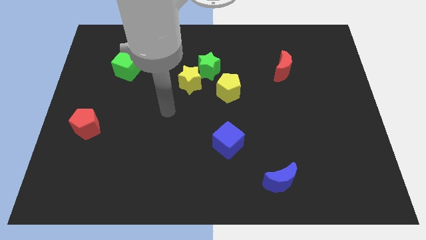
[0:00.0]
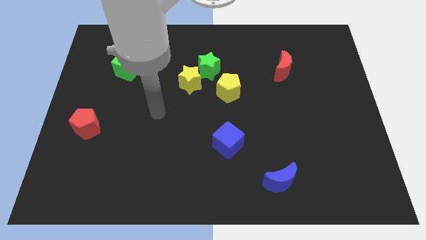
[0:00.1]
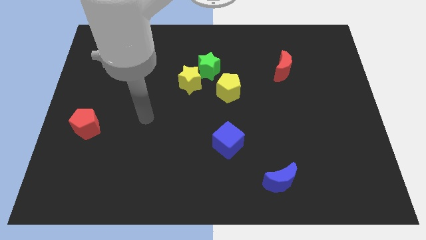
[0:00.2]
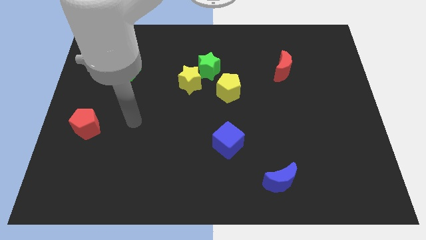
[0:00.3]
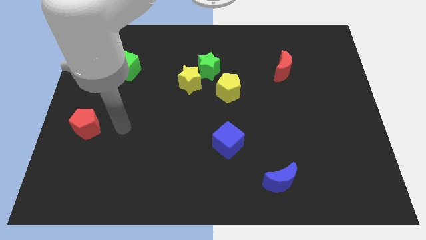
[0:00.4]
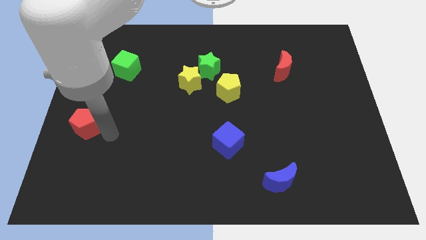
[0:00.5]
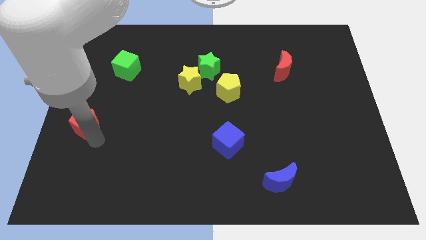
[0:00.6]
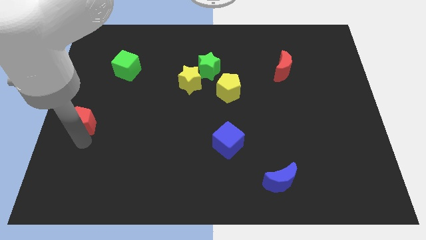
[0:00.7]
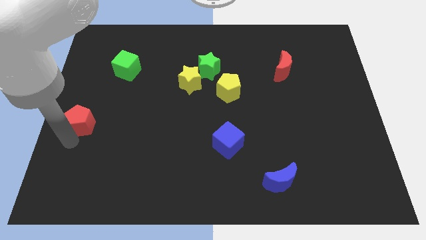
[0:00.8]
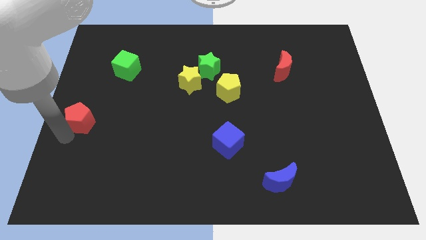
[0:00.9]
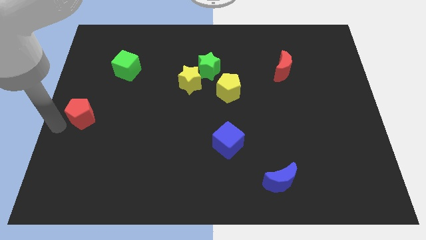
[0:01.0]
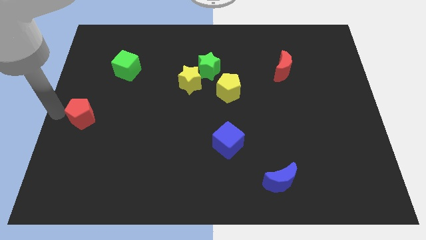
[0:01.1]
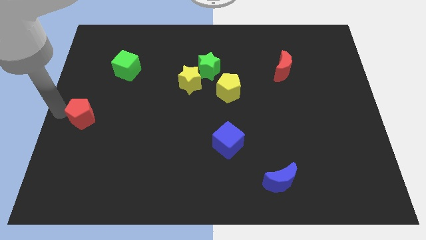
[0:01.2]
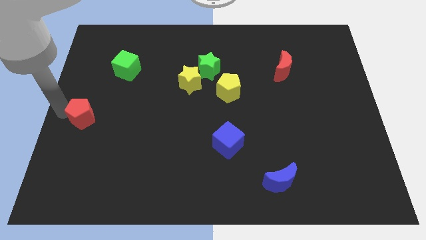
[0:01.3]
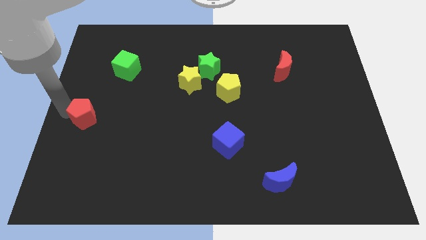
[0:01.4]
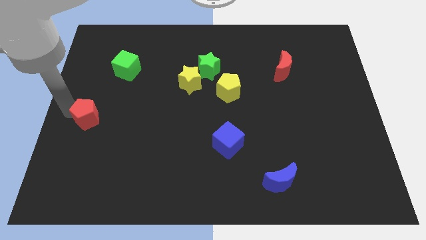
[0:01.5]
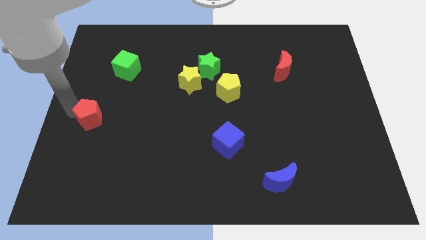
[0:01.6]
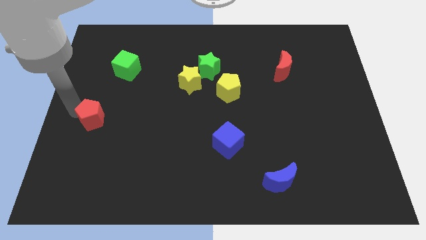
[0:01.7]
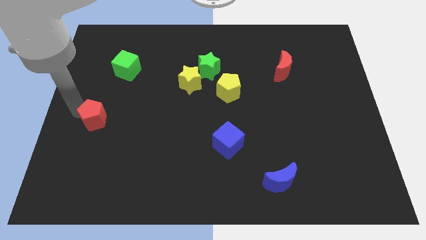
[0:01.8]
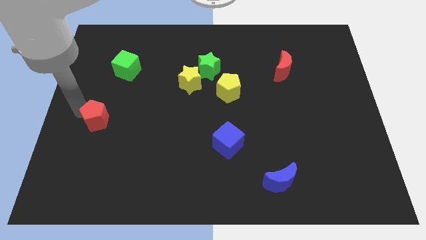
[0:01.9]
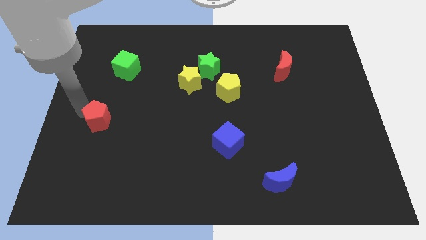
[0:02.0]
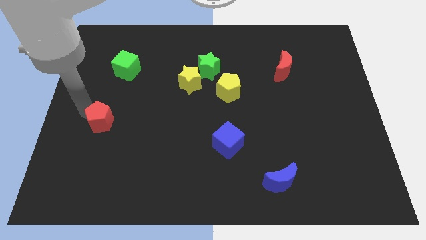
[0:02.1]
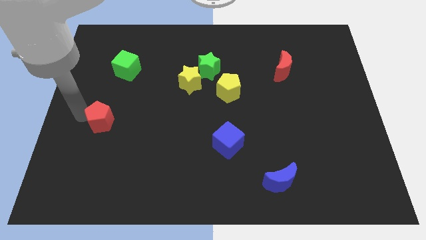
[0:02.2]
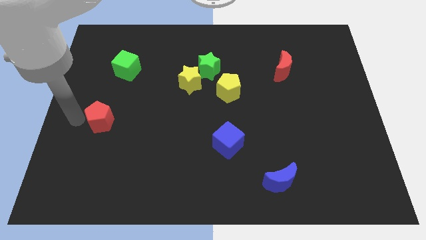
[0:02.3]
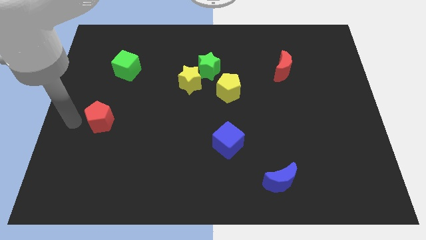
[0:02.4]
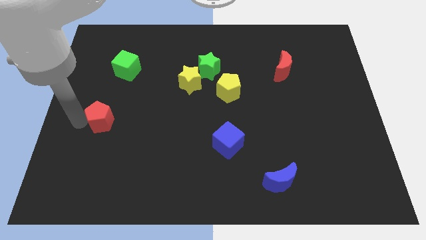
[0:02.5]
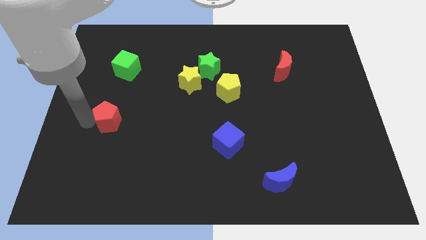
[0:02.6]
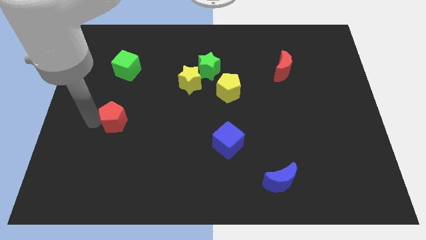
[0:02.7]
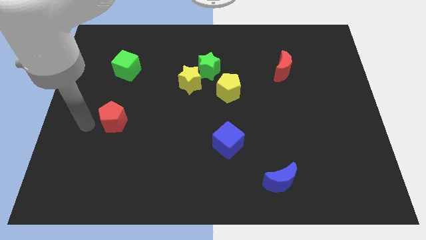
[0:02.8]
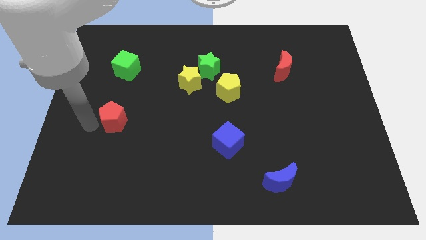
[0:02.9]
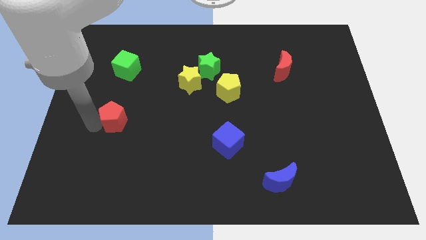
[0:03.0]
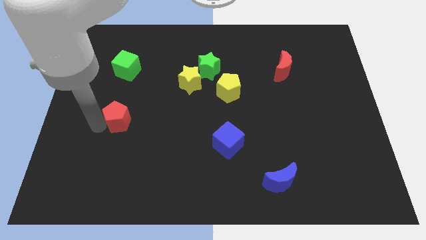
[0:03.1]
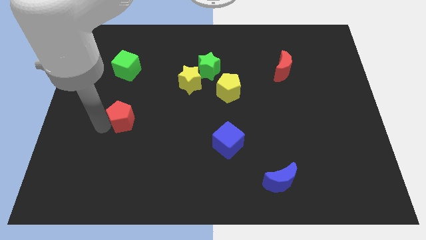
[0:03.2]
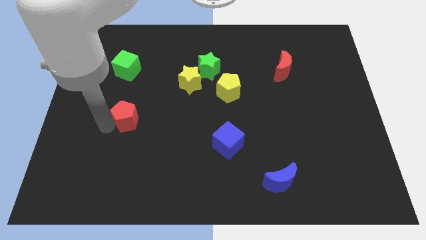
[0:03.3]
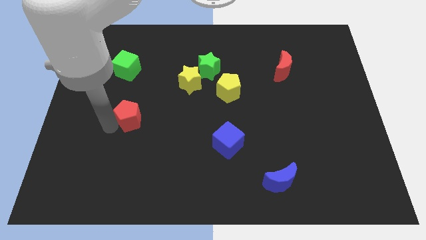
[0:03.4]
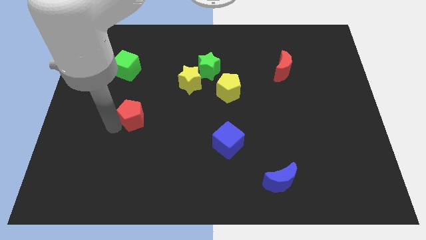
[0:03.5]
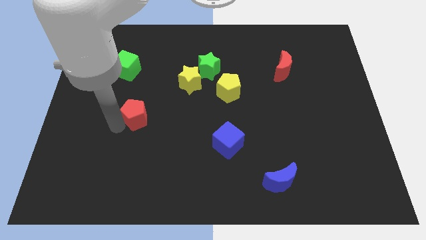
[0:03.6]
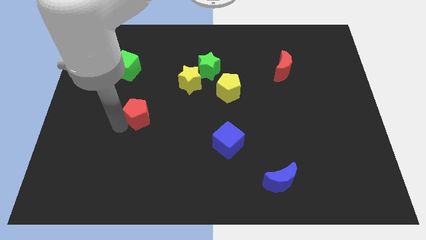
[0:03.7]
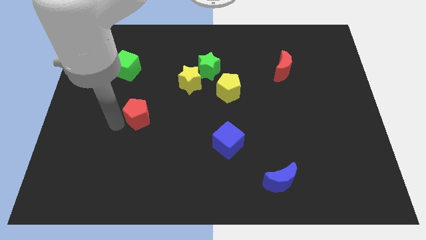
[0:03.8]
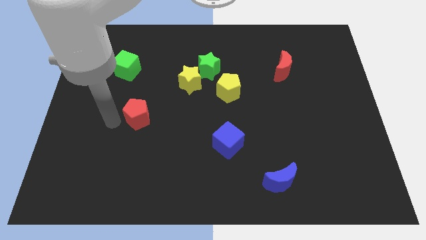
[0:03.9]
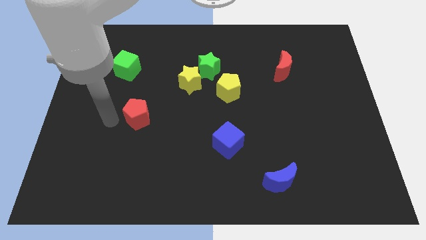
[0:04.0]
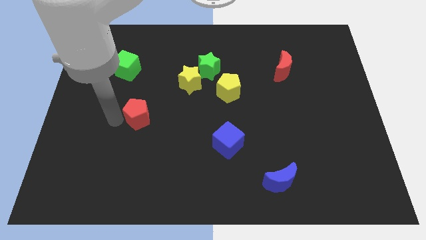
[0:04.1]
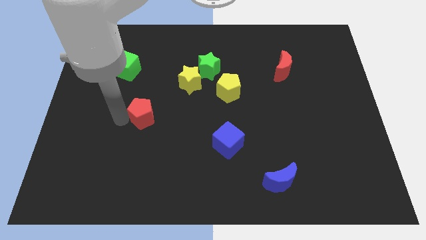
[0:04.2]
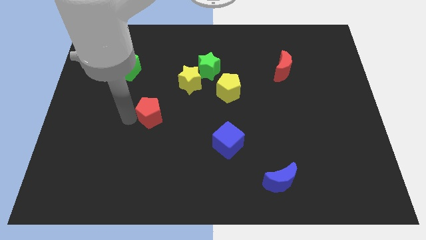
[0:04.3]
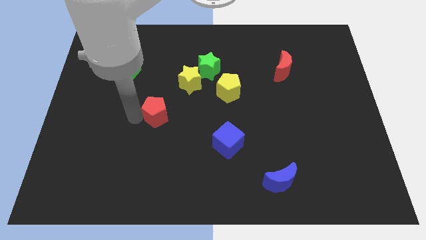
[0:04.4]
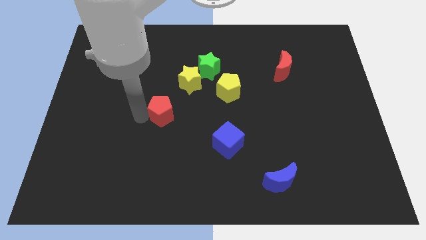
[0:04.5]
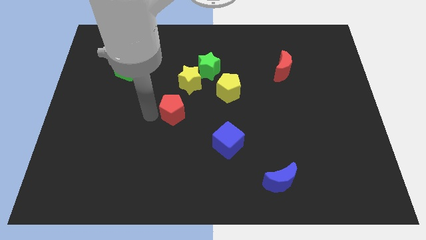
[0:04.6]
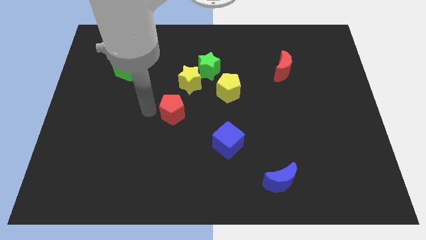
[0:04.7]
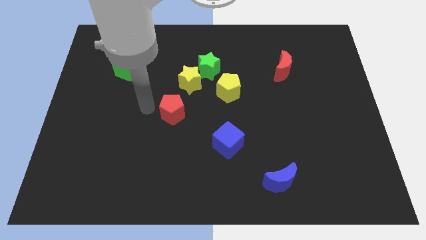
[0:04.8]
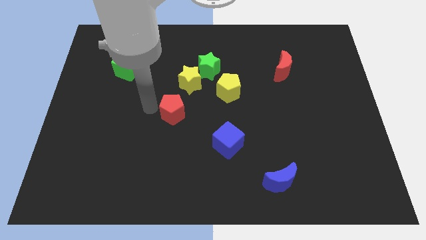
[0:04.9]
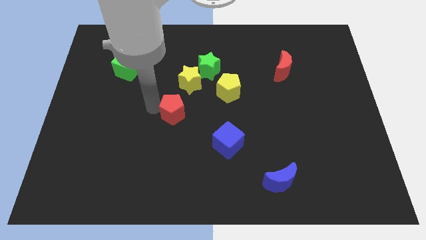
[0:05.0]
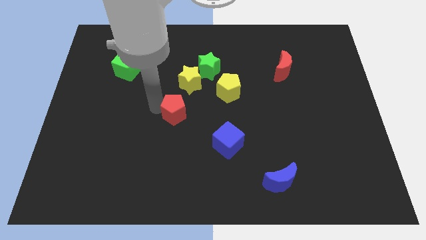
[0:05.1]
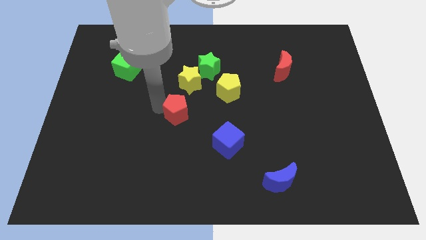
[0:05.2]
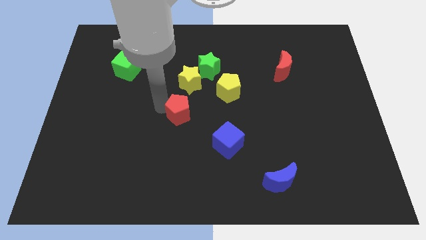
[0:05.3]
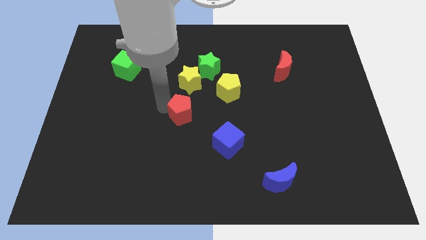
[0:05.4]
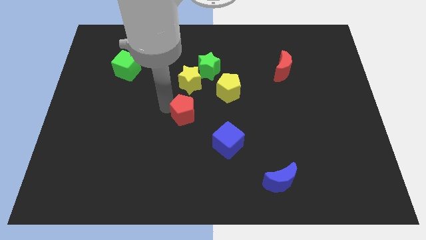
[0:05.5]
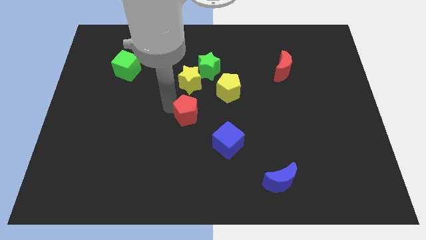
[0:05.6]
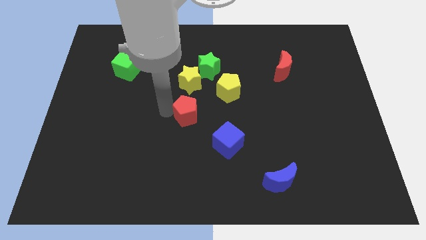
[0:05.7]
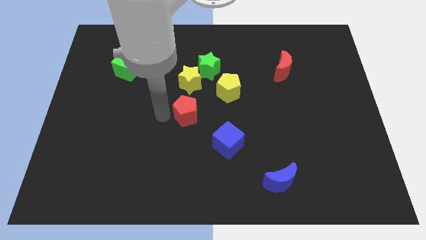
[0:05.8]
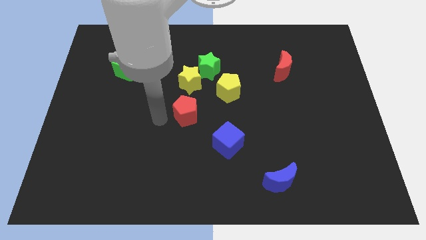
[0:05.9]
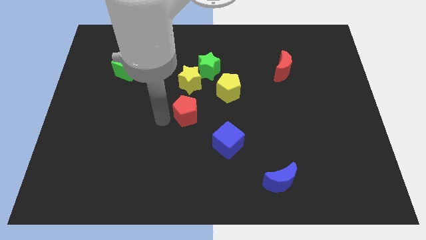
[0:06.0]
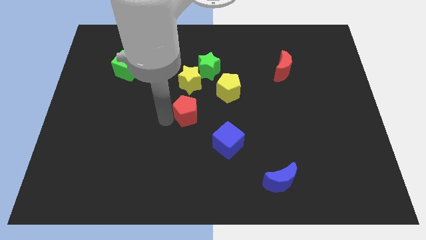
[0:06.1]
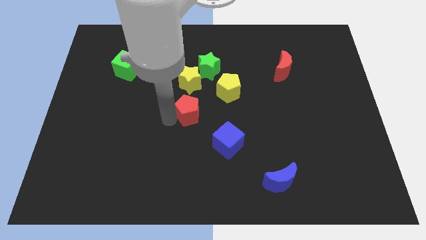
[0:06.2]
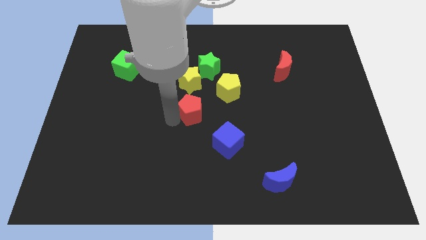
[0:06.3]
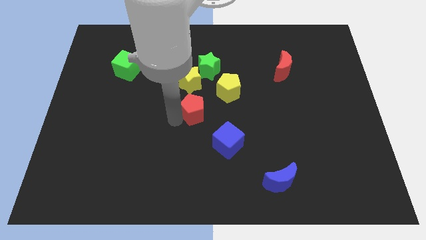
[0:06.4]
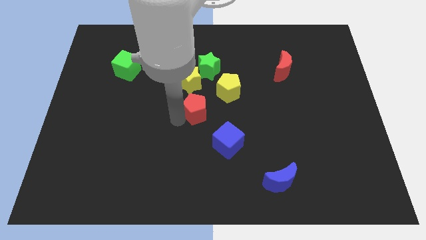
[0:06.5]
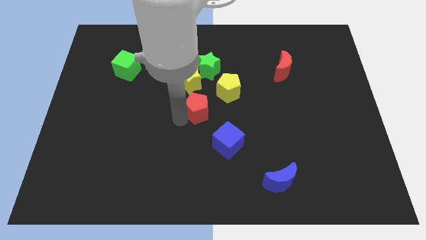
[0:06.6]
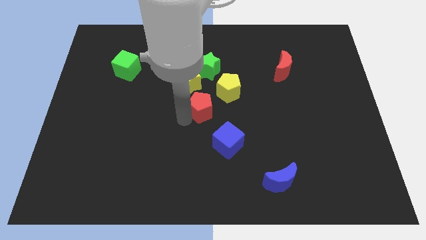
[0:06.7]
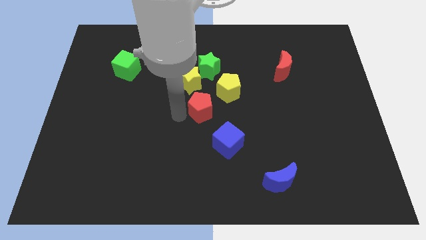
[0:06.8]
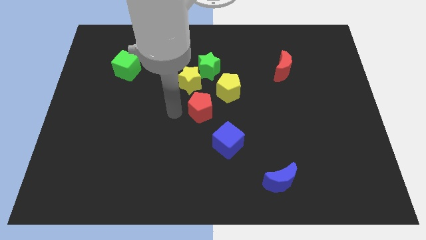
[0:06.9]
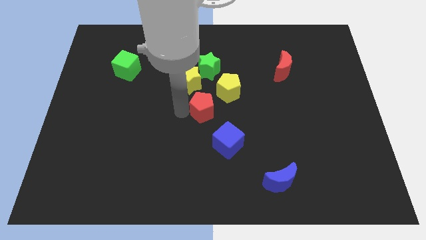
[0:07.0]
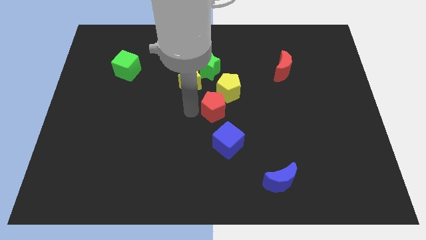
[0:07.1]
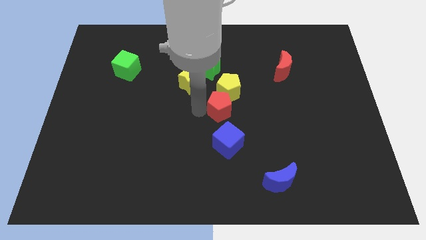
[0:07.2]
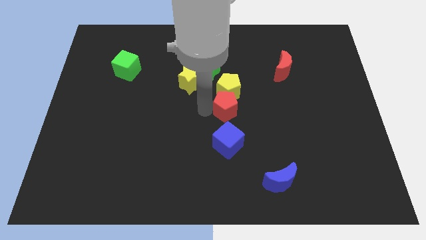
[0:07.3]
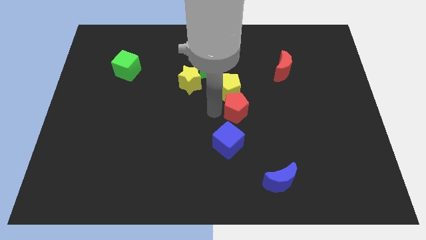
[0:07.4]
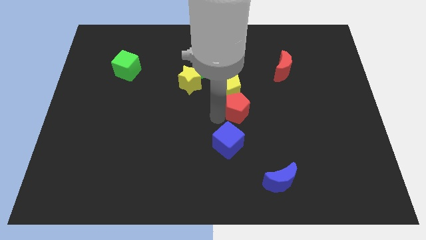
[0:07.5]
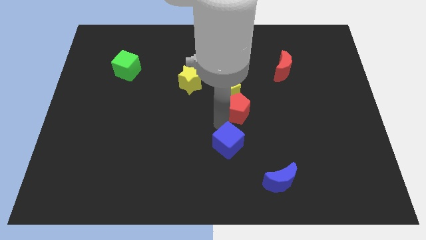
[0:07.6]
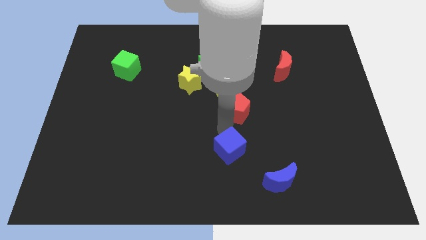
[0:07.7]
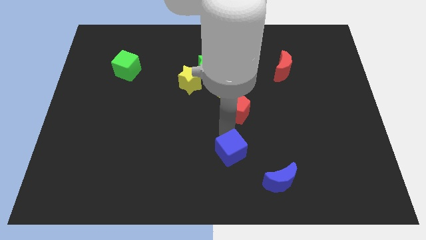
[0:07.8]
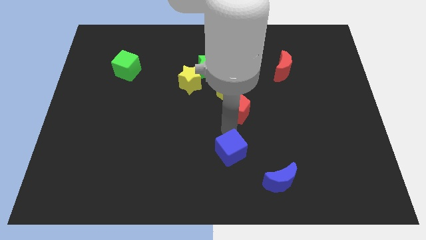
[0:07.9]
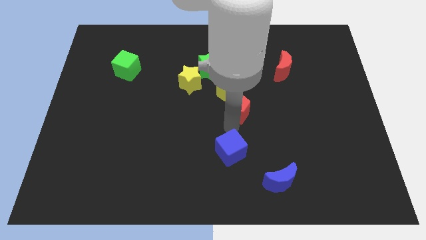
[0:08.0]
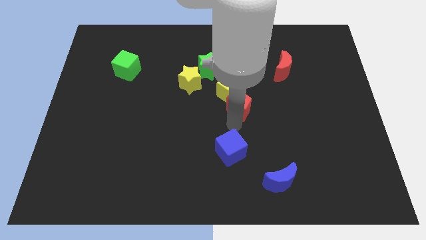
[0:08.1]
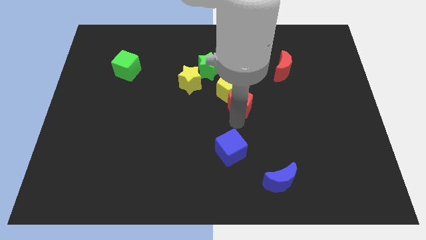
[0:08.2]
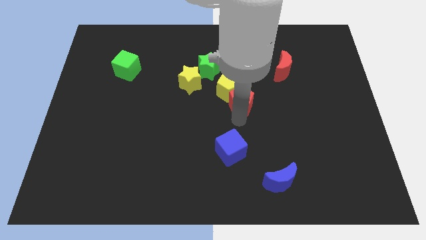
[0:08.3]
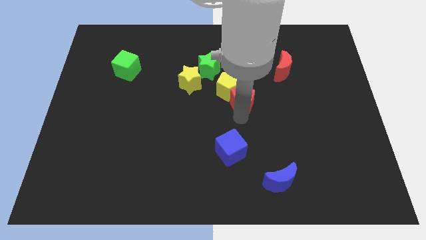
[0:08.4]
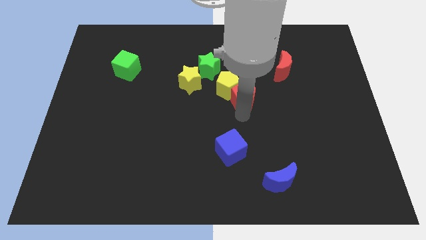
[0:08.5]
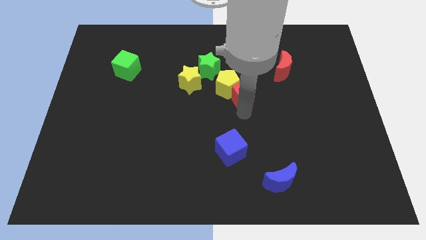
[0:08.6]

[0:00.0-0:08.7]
push the red pentagon right of the yellow star
